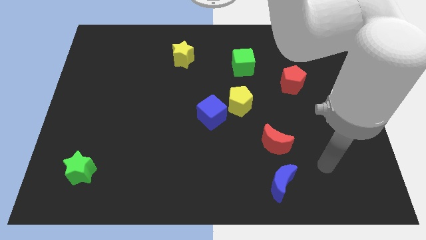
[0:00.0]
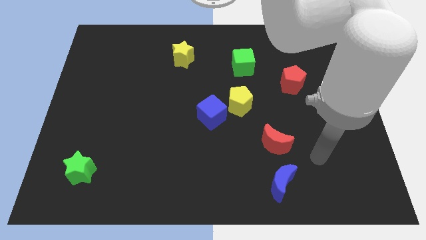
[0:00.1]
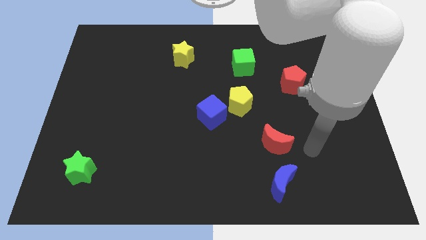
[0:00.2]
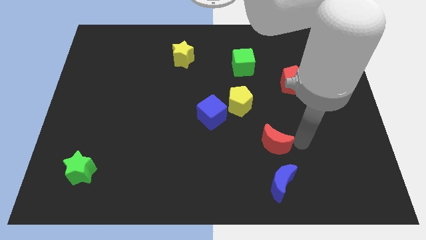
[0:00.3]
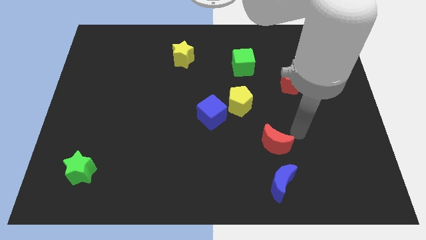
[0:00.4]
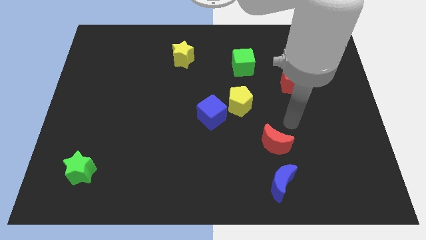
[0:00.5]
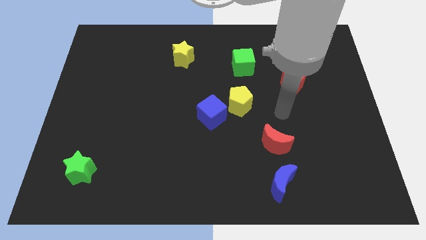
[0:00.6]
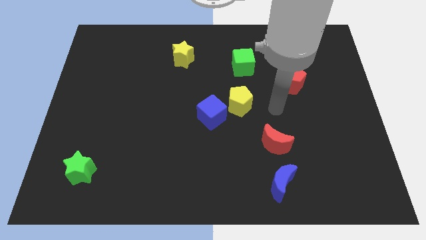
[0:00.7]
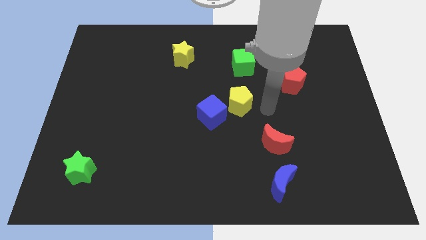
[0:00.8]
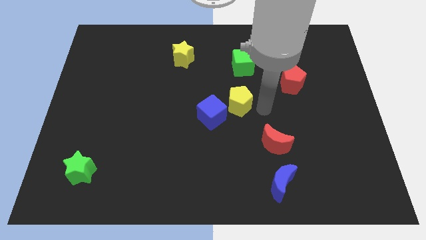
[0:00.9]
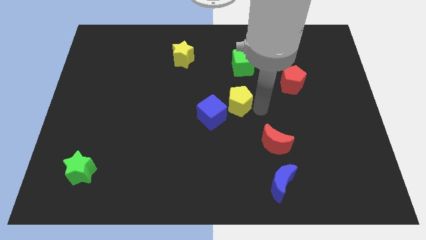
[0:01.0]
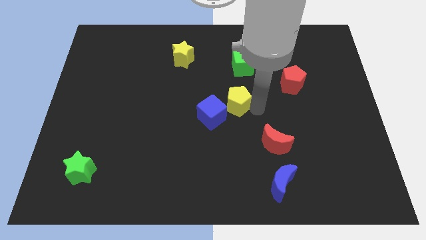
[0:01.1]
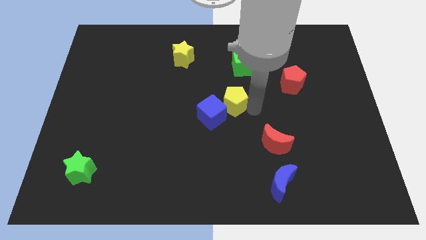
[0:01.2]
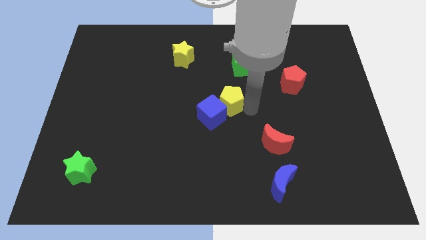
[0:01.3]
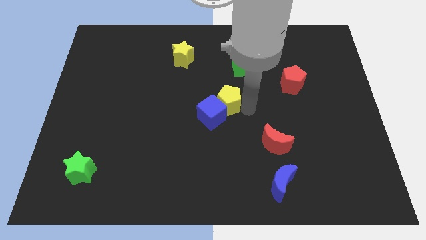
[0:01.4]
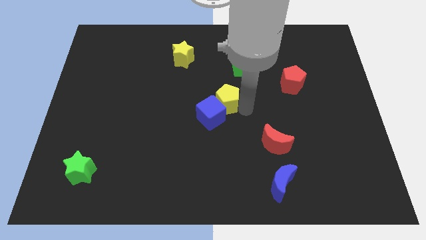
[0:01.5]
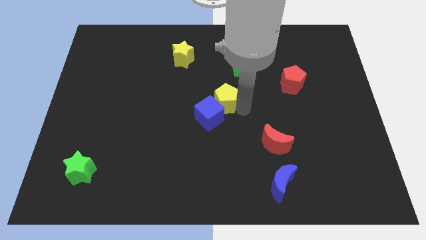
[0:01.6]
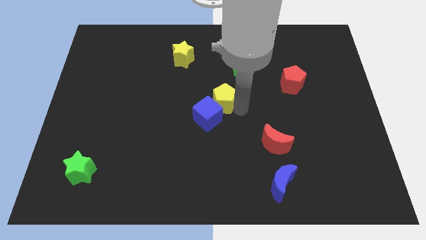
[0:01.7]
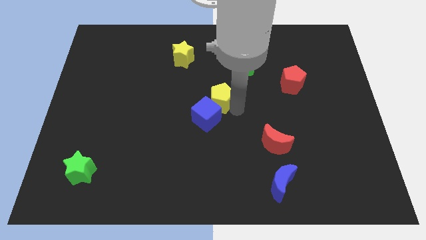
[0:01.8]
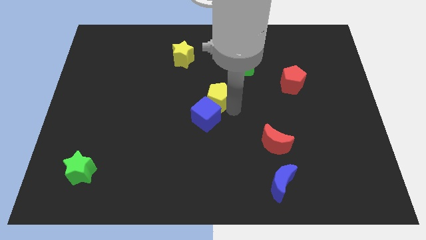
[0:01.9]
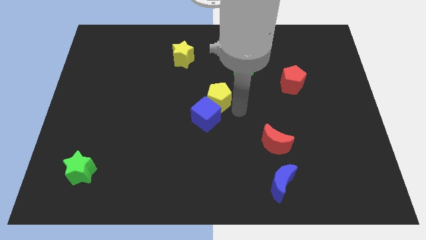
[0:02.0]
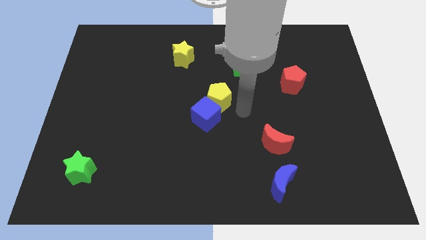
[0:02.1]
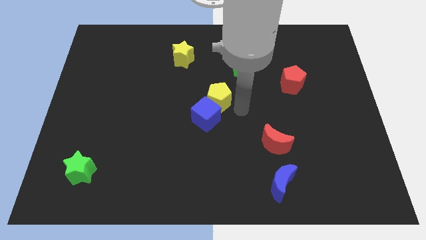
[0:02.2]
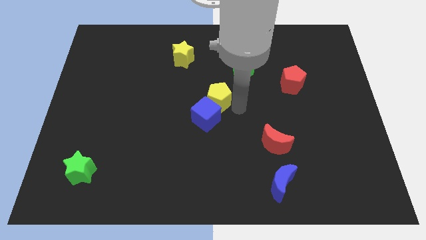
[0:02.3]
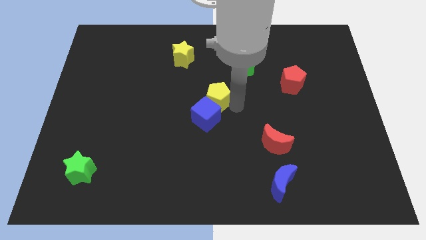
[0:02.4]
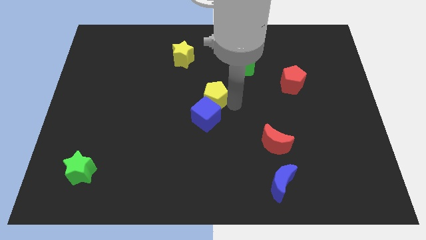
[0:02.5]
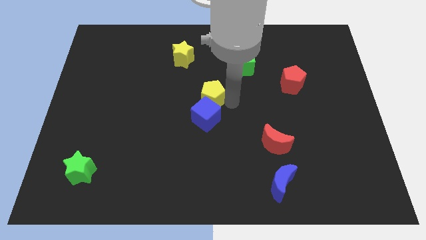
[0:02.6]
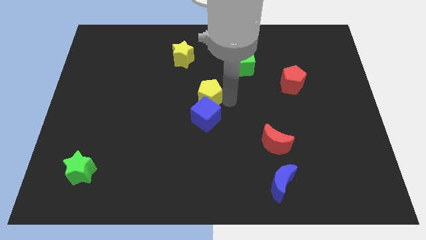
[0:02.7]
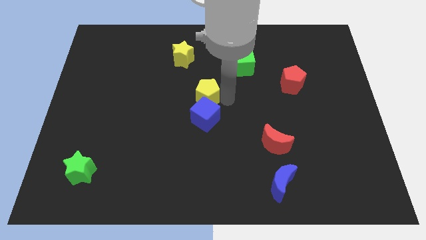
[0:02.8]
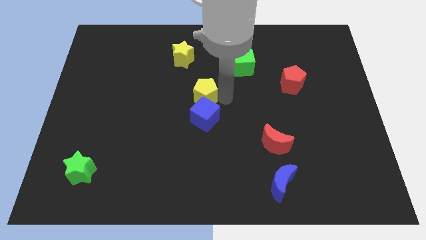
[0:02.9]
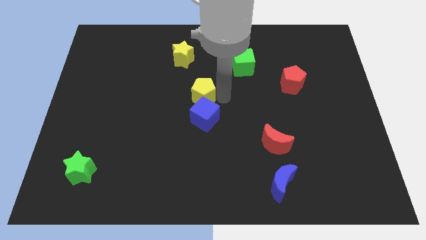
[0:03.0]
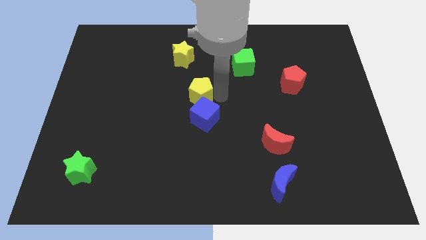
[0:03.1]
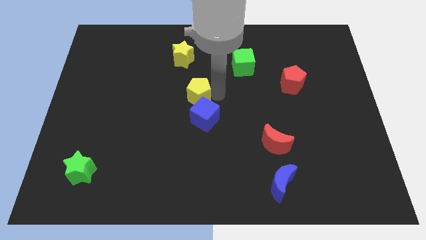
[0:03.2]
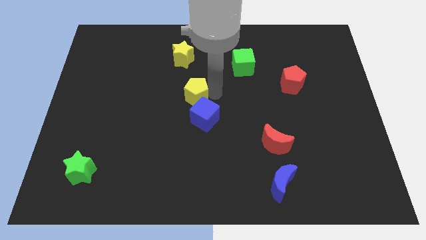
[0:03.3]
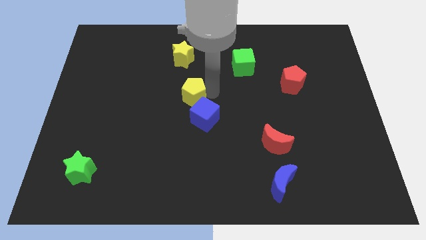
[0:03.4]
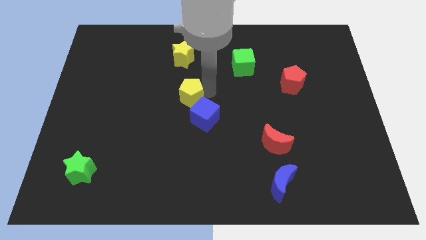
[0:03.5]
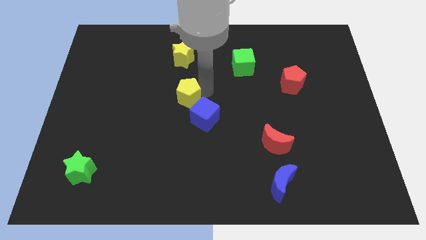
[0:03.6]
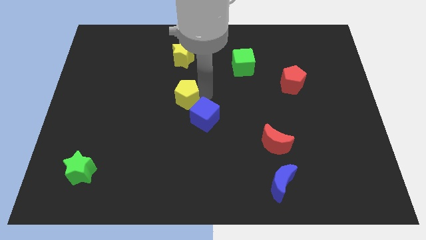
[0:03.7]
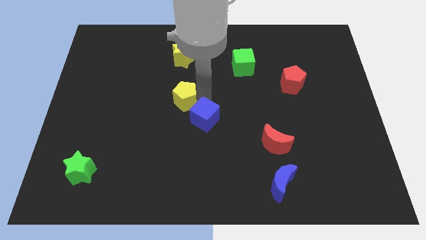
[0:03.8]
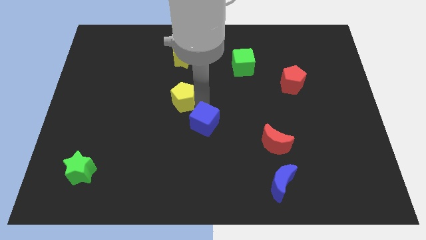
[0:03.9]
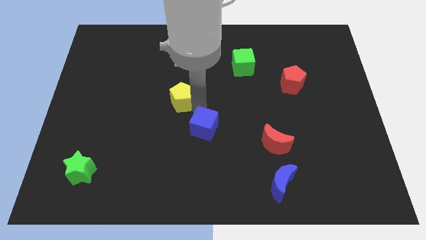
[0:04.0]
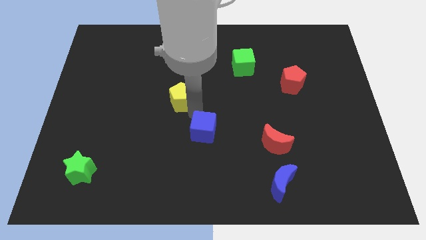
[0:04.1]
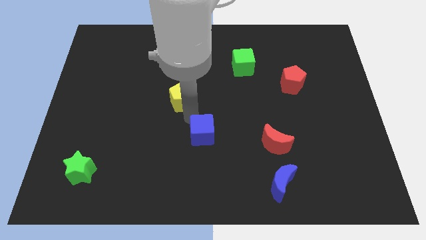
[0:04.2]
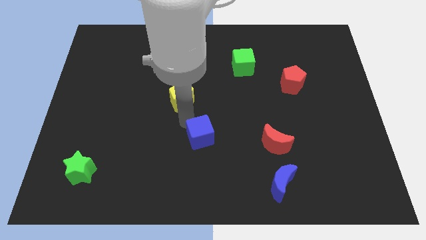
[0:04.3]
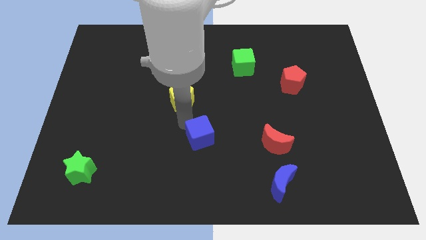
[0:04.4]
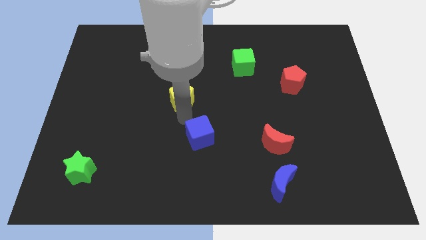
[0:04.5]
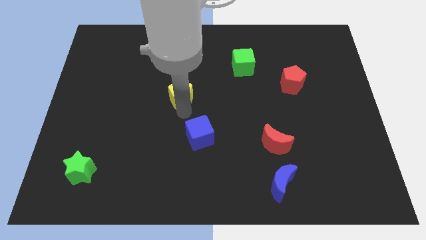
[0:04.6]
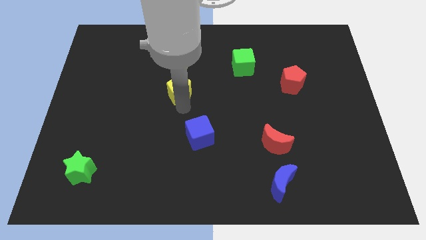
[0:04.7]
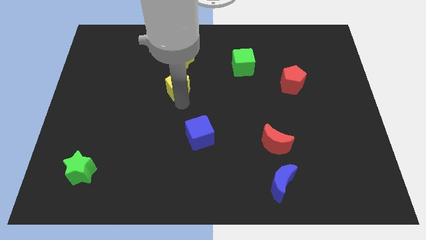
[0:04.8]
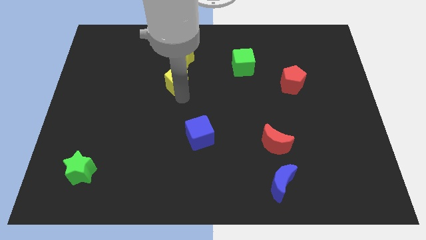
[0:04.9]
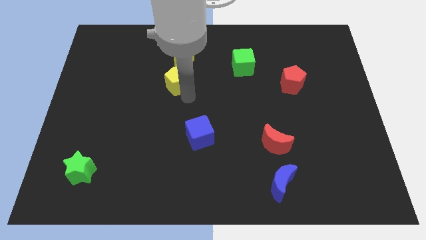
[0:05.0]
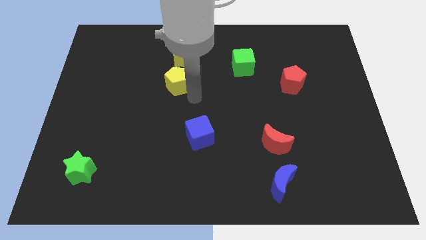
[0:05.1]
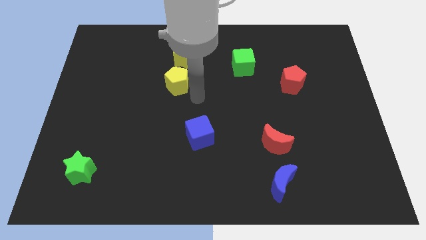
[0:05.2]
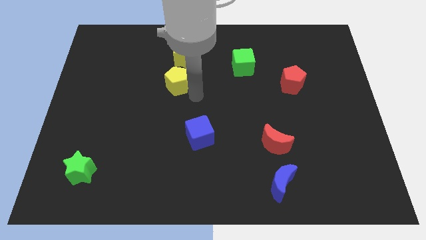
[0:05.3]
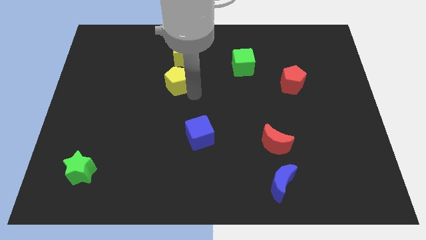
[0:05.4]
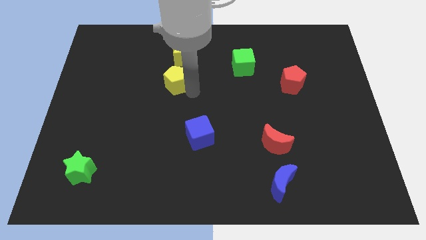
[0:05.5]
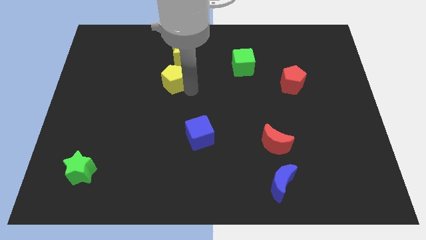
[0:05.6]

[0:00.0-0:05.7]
push the yellow pentagon diagonally down and to the left of the yellow star
